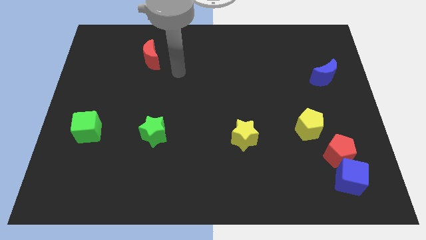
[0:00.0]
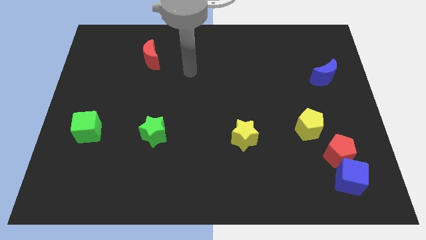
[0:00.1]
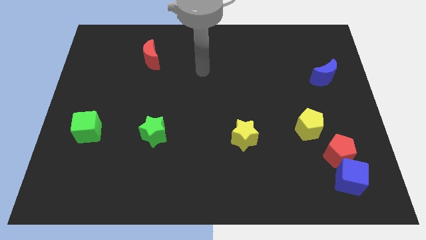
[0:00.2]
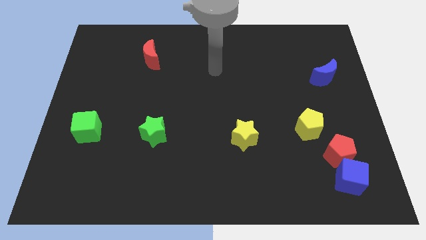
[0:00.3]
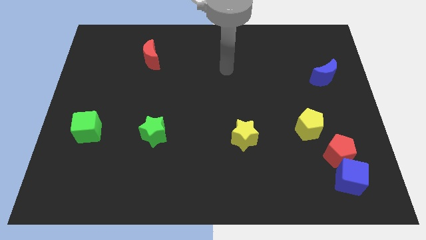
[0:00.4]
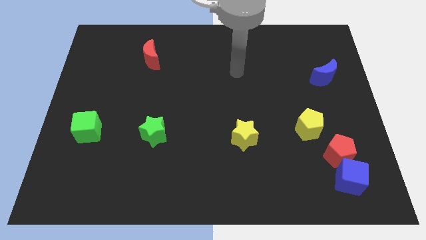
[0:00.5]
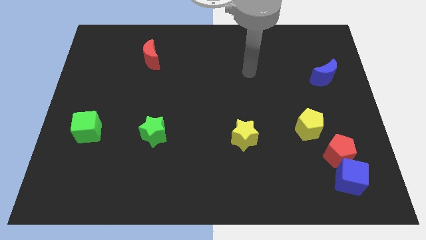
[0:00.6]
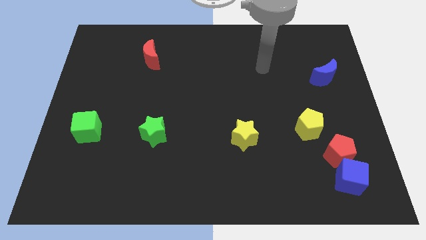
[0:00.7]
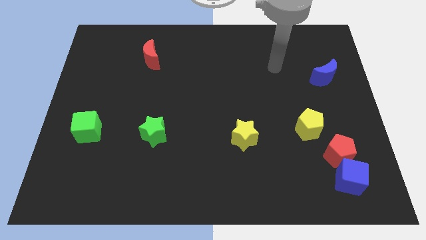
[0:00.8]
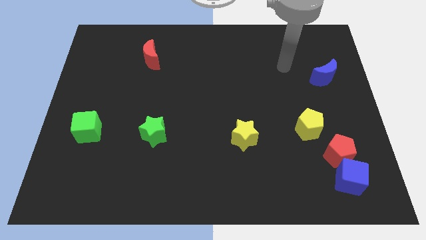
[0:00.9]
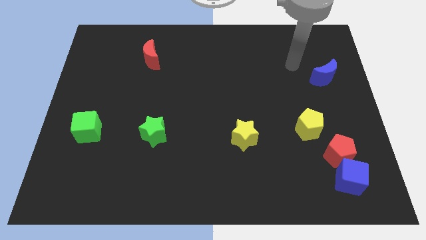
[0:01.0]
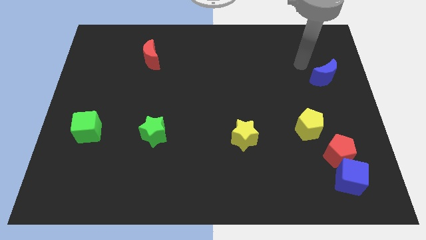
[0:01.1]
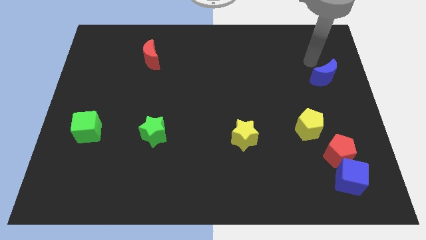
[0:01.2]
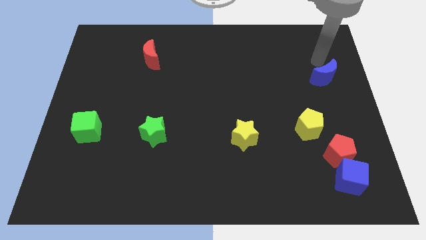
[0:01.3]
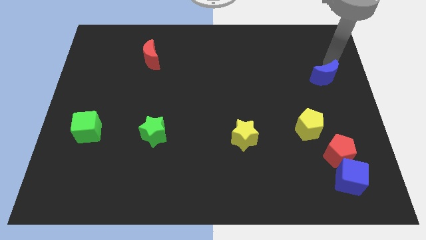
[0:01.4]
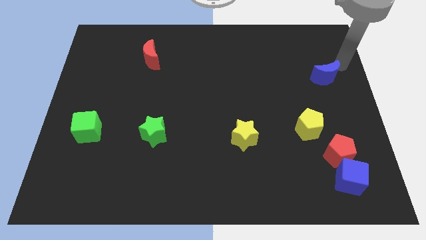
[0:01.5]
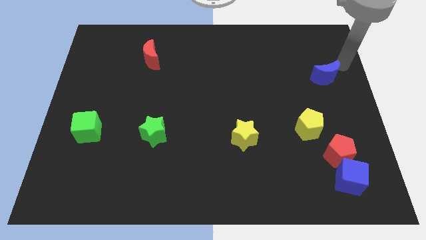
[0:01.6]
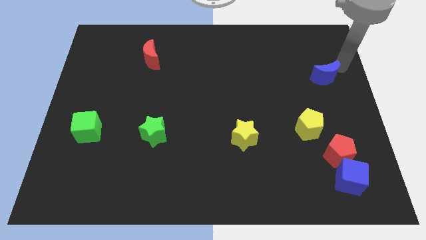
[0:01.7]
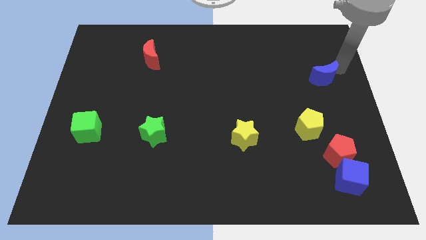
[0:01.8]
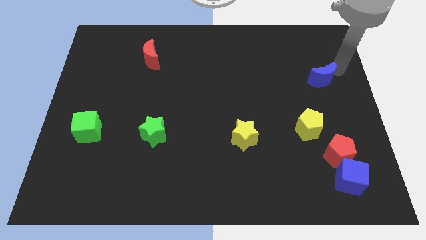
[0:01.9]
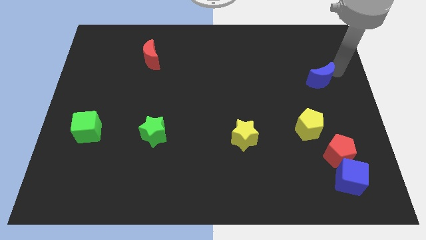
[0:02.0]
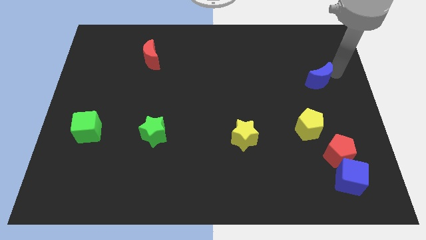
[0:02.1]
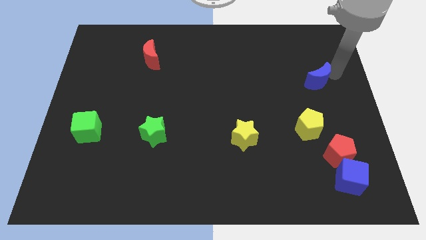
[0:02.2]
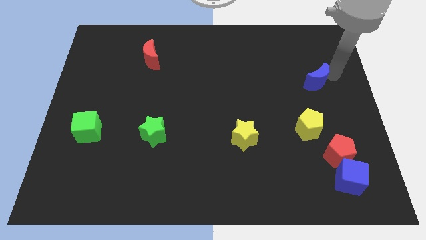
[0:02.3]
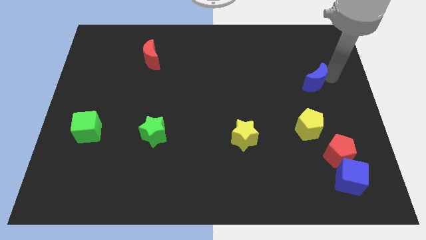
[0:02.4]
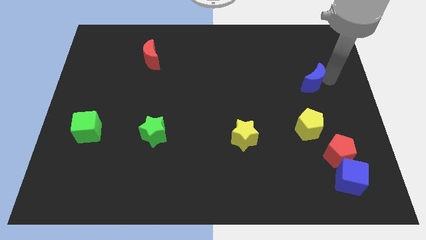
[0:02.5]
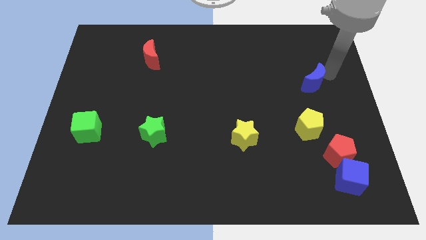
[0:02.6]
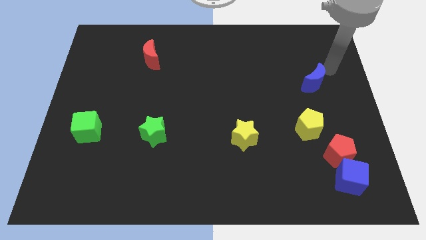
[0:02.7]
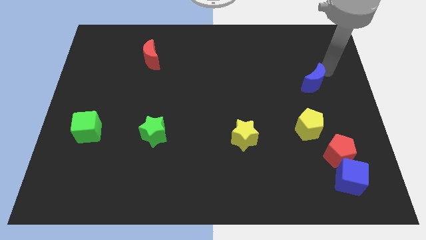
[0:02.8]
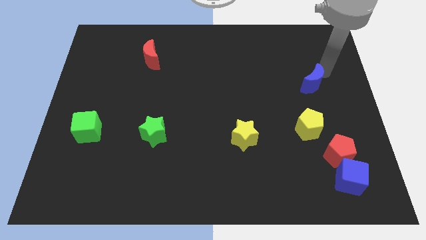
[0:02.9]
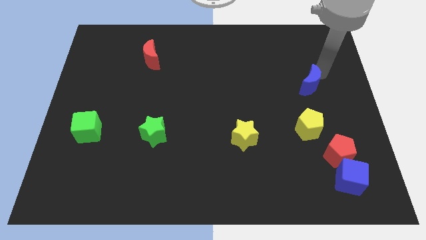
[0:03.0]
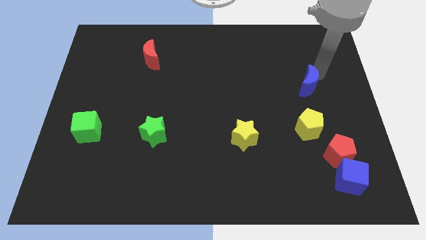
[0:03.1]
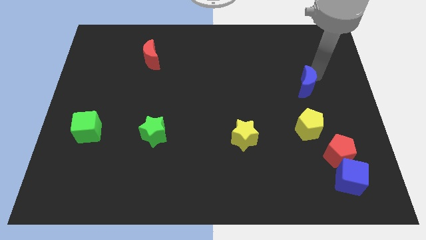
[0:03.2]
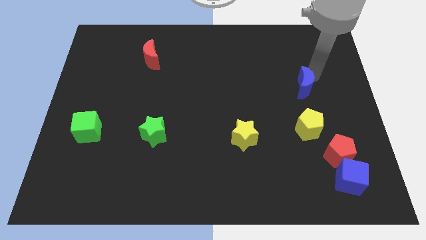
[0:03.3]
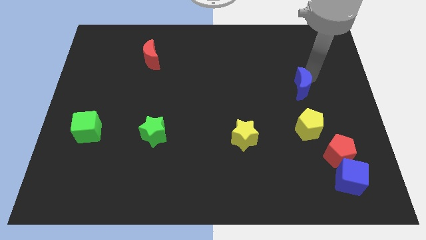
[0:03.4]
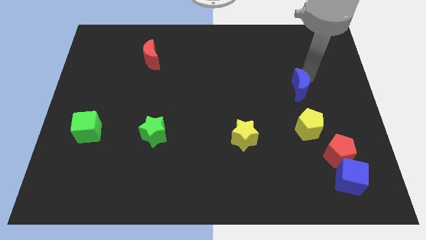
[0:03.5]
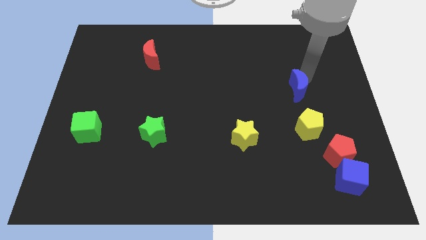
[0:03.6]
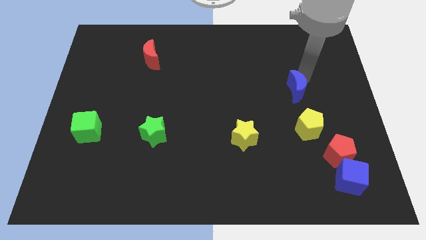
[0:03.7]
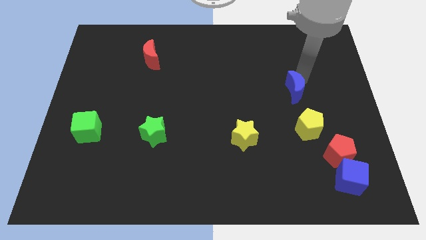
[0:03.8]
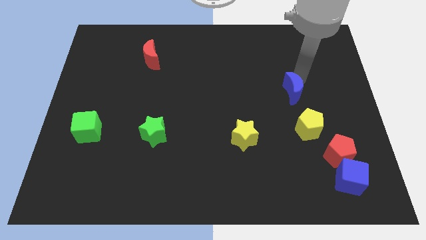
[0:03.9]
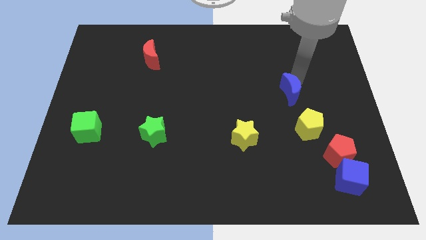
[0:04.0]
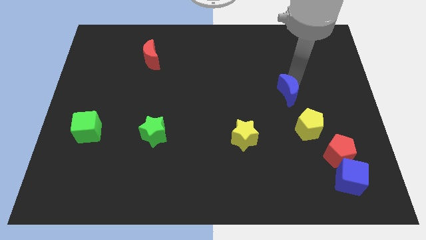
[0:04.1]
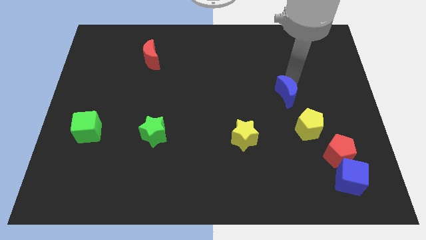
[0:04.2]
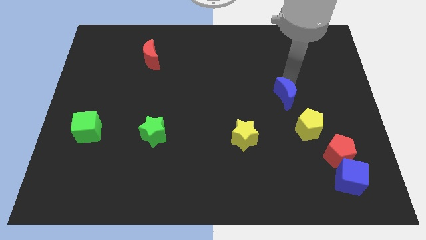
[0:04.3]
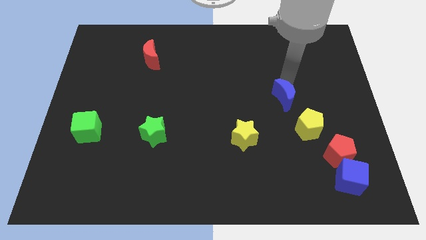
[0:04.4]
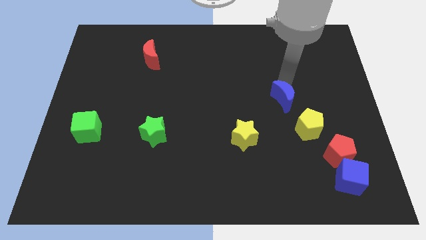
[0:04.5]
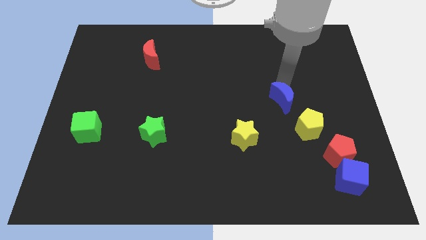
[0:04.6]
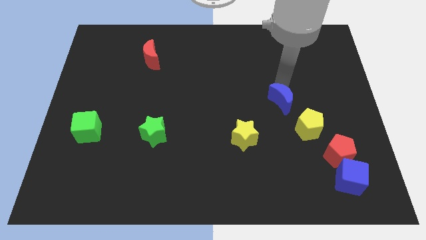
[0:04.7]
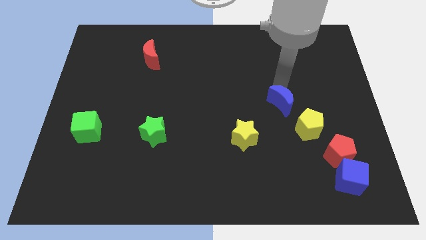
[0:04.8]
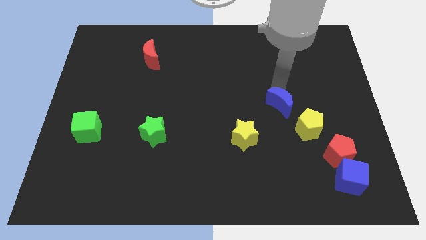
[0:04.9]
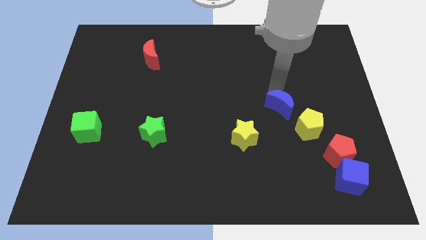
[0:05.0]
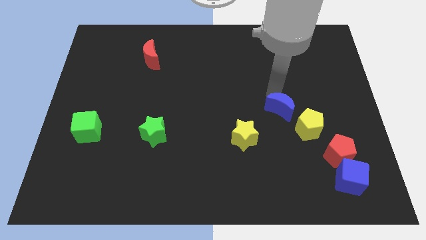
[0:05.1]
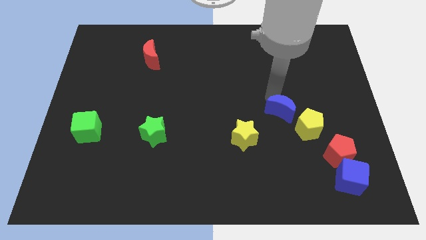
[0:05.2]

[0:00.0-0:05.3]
move the blue moon to the left of the yellow pentagon

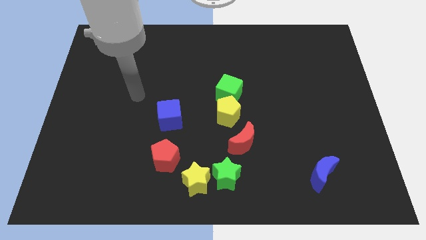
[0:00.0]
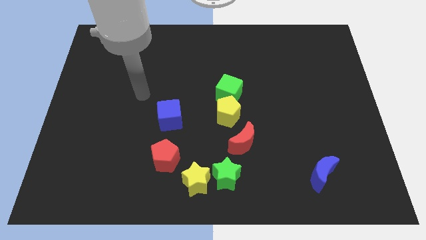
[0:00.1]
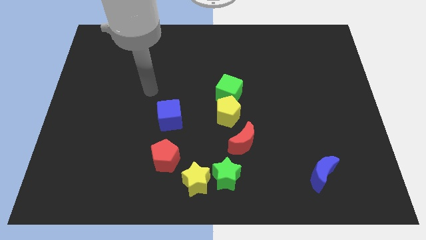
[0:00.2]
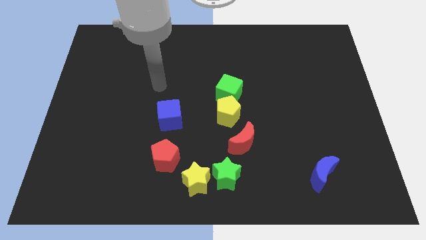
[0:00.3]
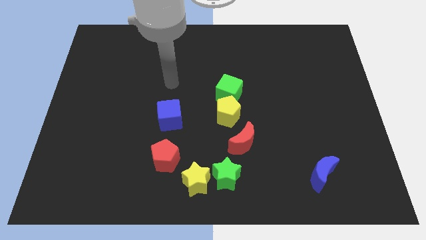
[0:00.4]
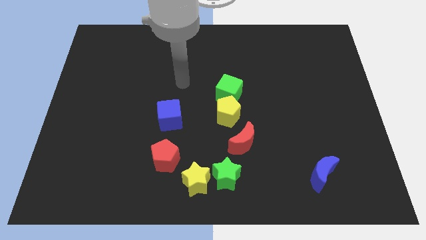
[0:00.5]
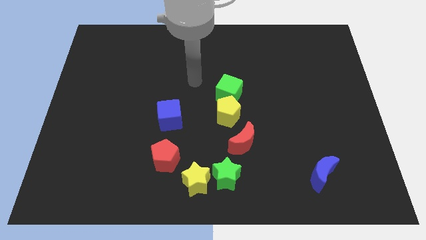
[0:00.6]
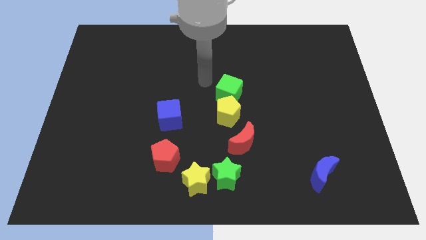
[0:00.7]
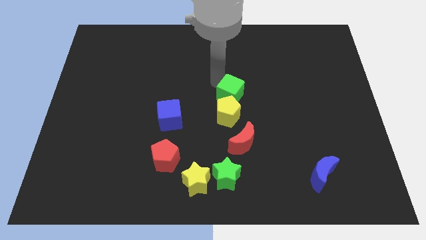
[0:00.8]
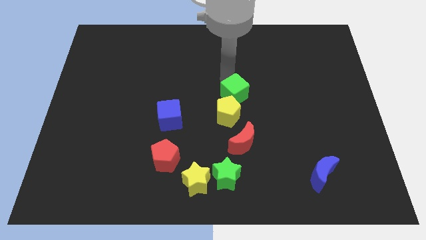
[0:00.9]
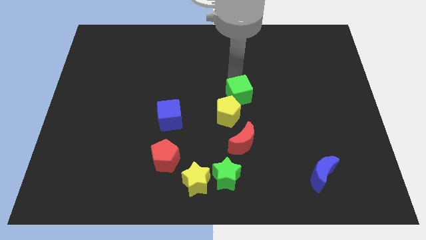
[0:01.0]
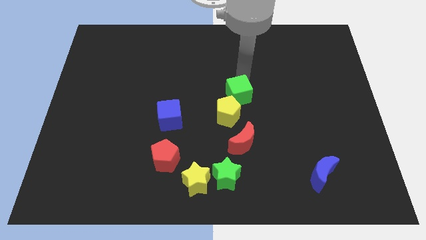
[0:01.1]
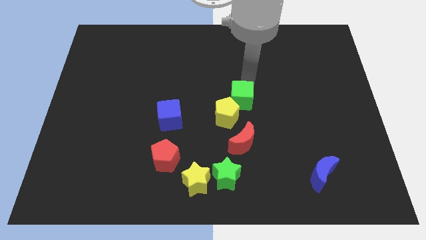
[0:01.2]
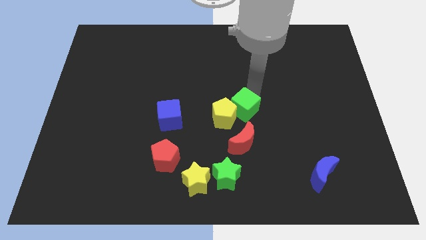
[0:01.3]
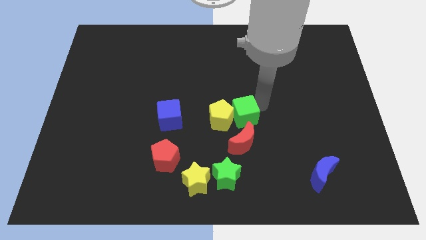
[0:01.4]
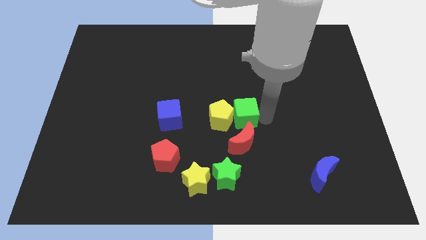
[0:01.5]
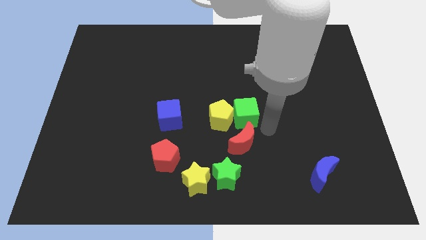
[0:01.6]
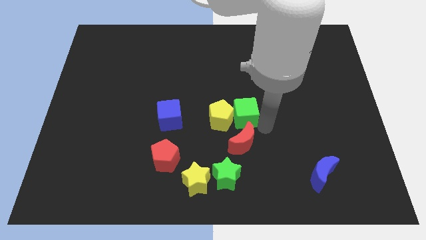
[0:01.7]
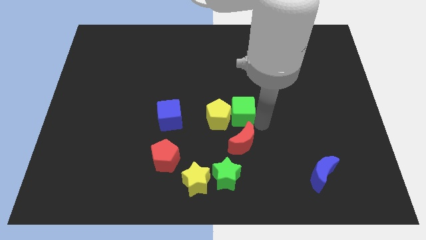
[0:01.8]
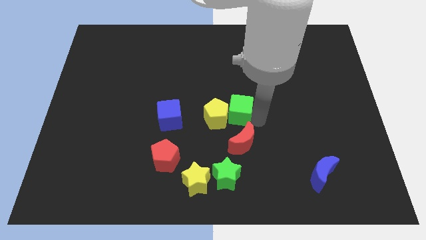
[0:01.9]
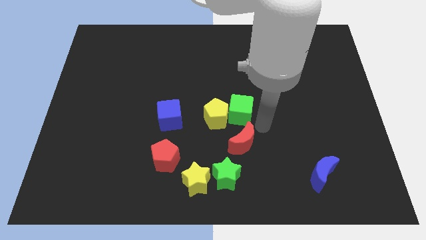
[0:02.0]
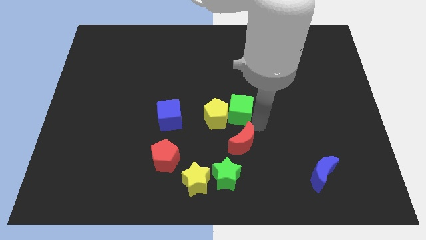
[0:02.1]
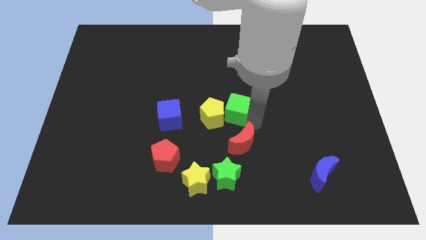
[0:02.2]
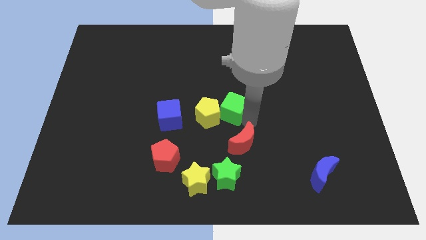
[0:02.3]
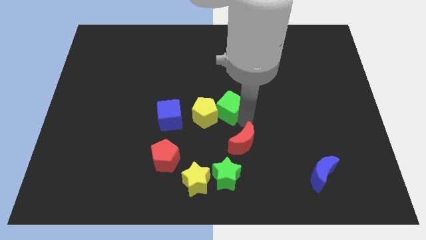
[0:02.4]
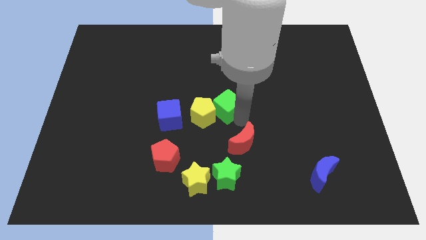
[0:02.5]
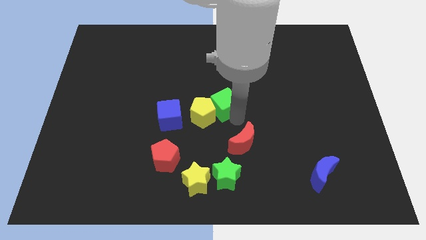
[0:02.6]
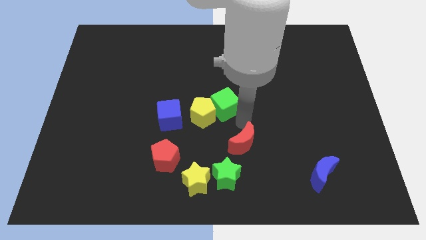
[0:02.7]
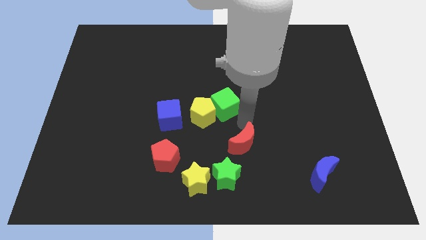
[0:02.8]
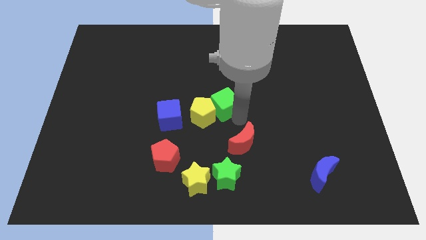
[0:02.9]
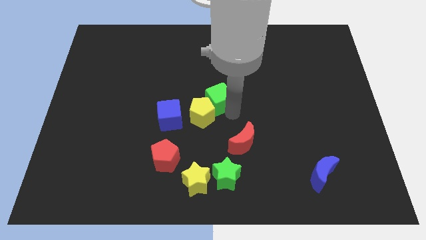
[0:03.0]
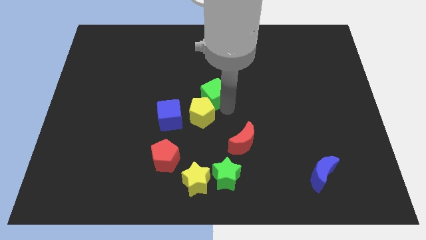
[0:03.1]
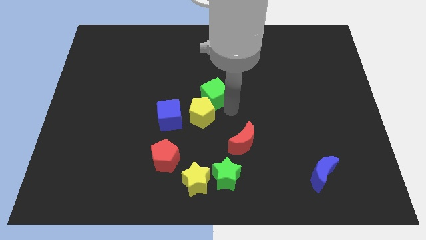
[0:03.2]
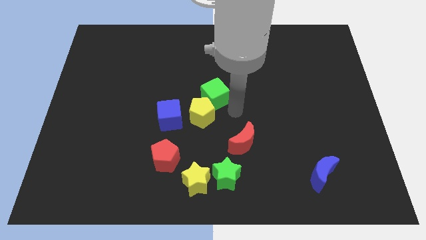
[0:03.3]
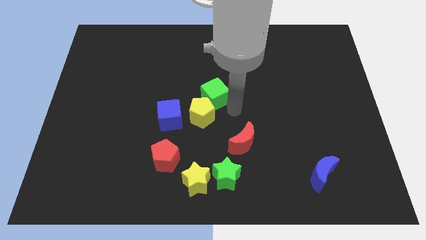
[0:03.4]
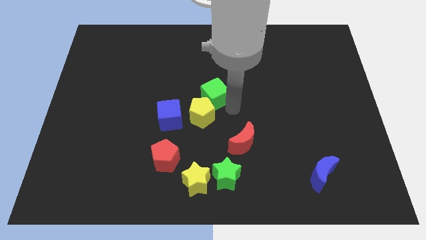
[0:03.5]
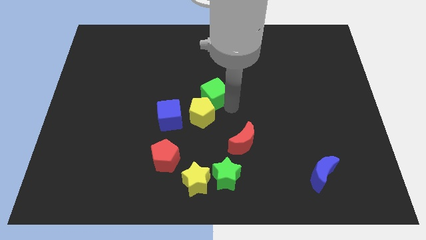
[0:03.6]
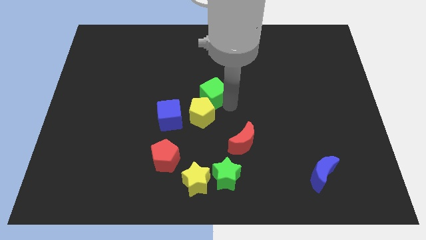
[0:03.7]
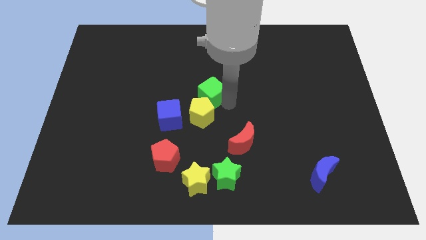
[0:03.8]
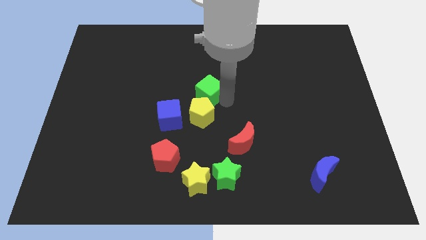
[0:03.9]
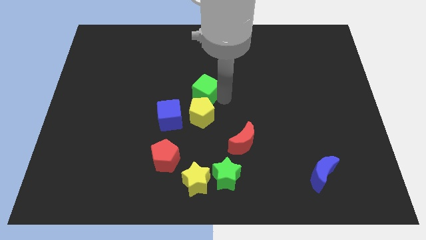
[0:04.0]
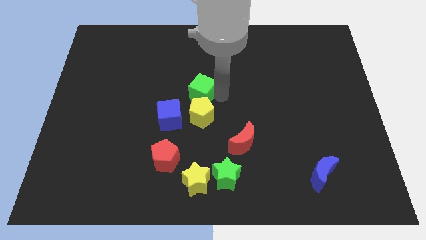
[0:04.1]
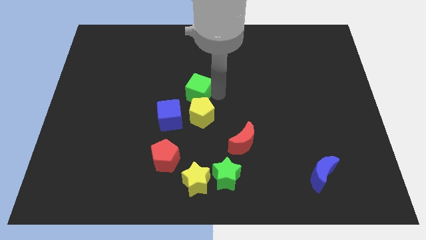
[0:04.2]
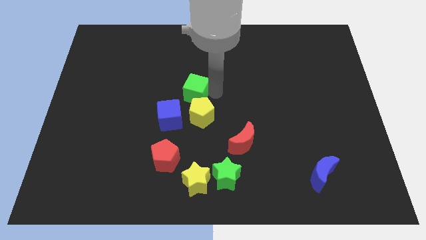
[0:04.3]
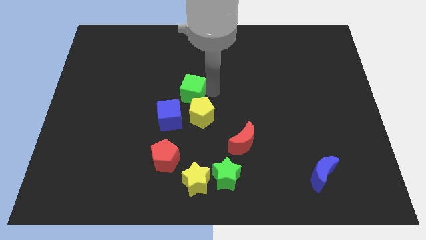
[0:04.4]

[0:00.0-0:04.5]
move the green cube to the top of the blue cube
